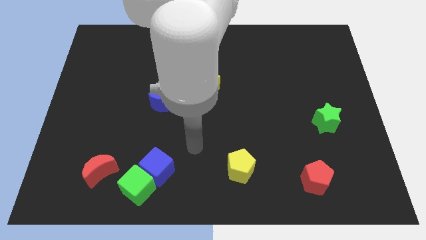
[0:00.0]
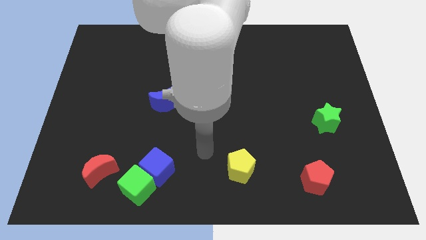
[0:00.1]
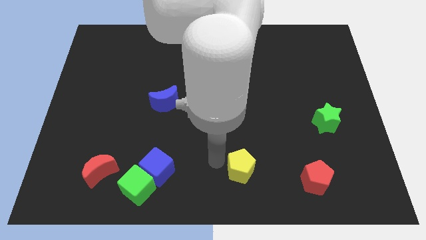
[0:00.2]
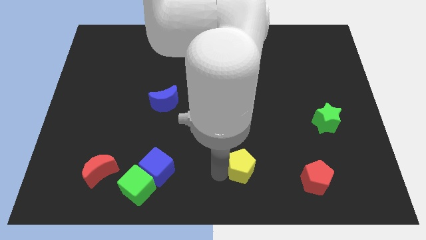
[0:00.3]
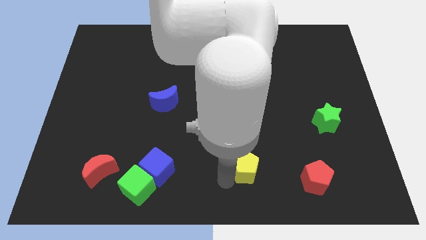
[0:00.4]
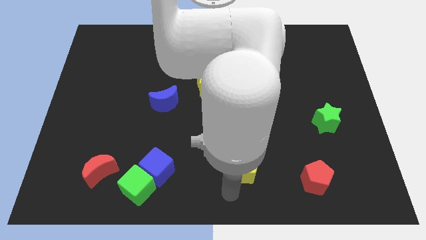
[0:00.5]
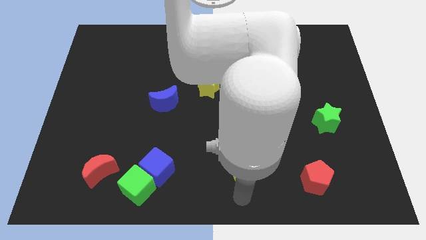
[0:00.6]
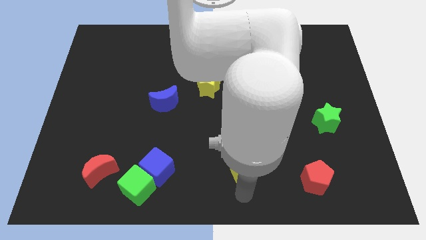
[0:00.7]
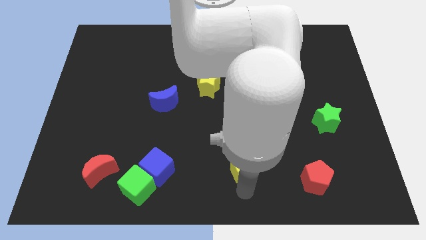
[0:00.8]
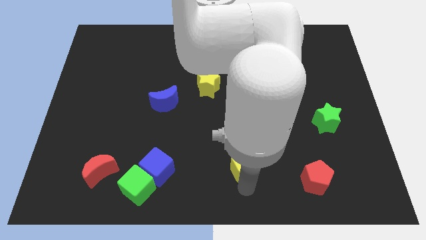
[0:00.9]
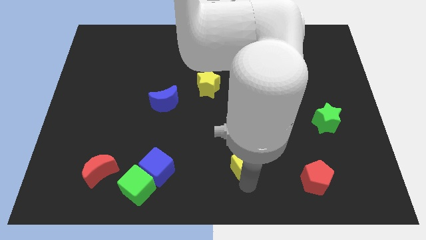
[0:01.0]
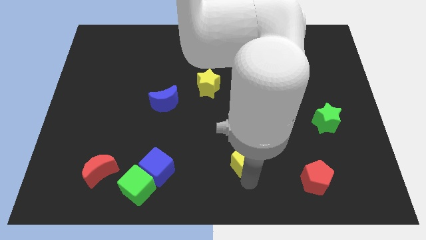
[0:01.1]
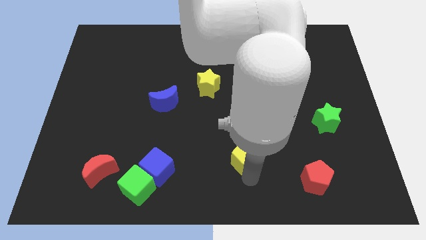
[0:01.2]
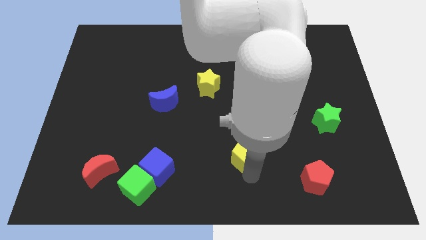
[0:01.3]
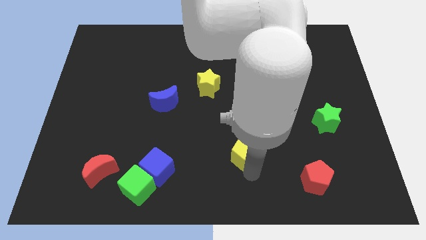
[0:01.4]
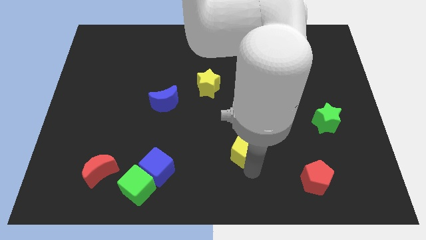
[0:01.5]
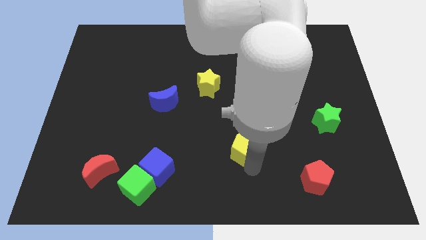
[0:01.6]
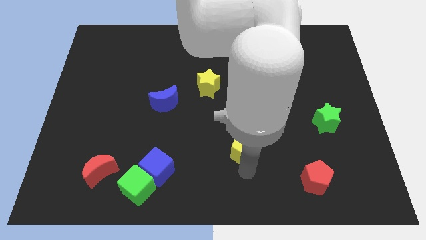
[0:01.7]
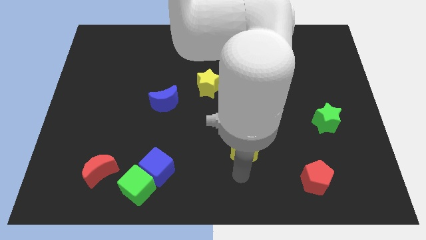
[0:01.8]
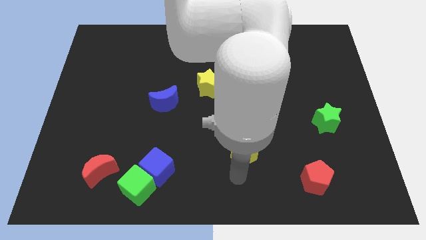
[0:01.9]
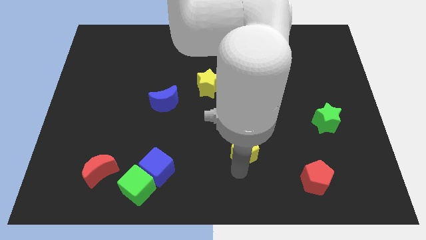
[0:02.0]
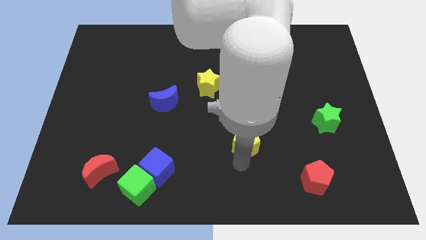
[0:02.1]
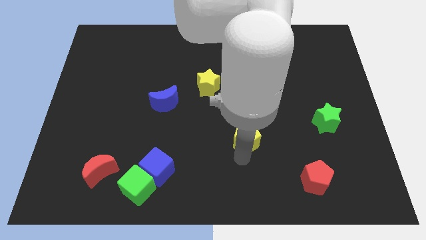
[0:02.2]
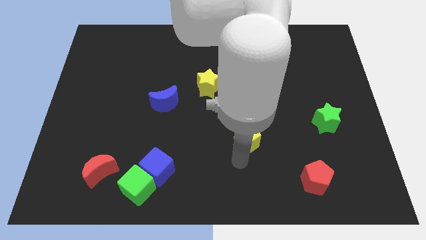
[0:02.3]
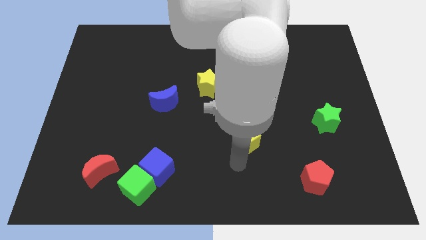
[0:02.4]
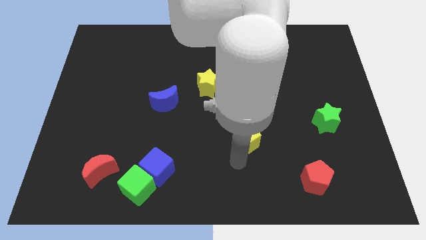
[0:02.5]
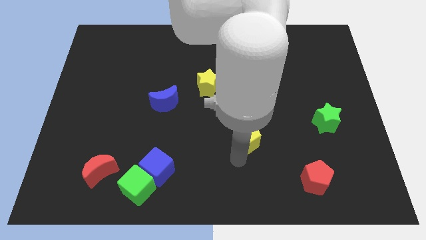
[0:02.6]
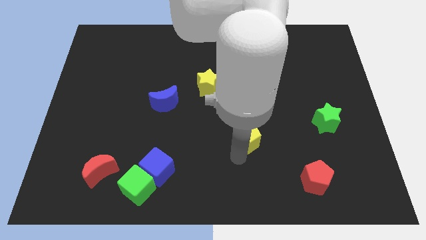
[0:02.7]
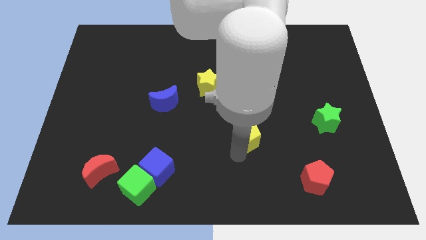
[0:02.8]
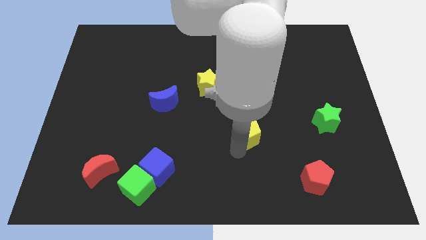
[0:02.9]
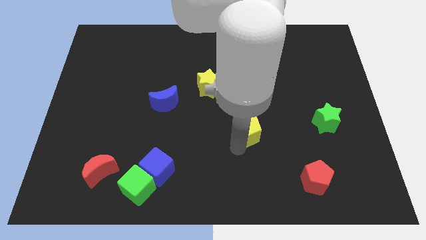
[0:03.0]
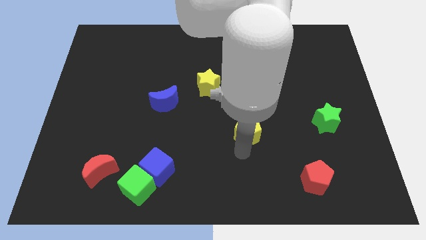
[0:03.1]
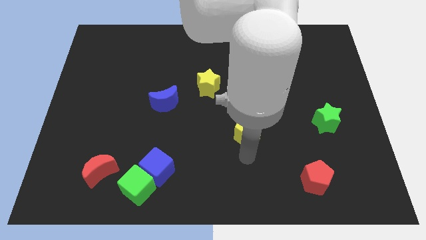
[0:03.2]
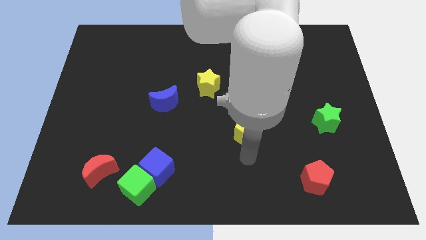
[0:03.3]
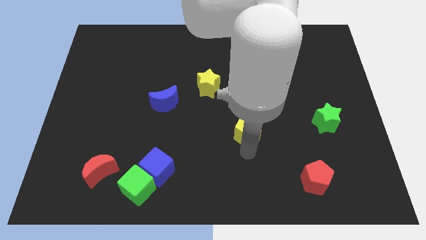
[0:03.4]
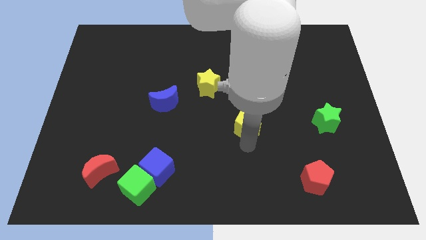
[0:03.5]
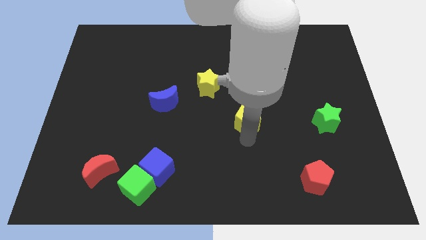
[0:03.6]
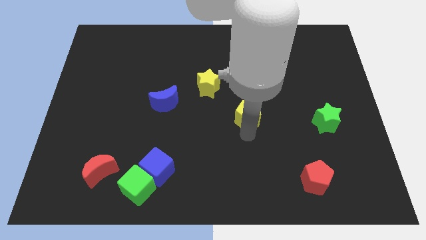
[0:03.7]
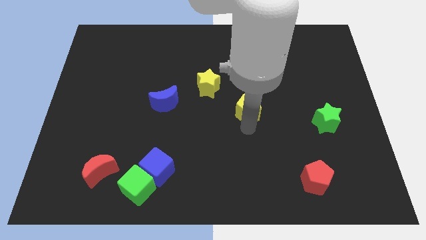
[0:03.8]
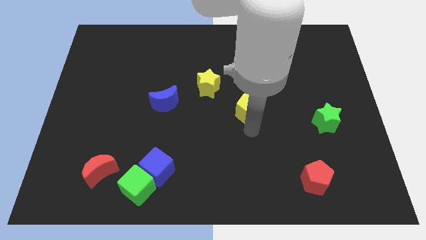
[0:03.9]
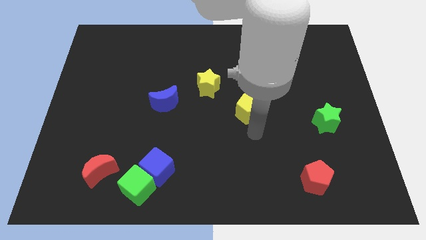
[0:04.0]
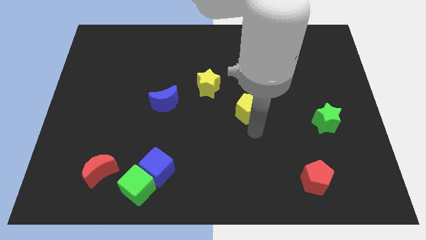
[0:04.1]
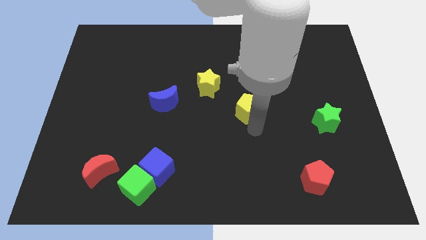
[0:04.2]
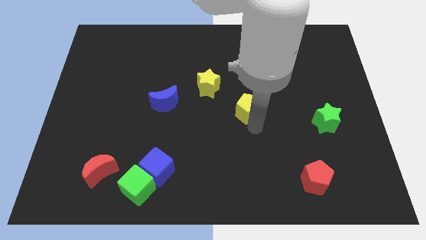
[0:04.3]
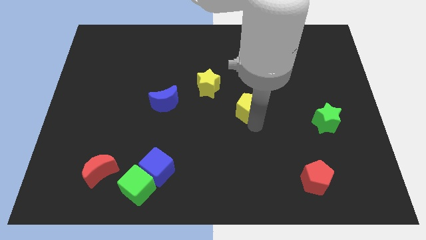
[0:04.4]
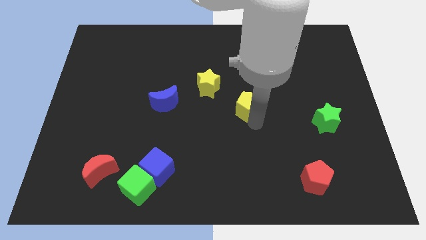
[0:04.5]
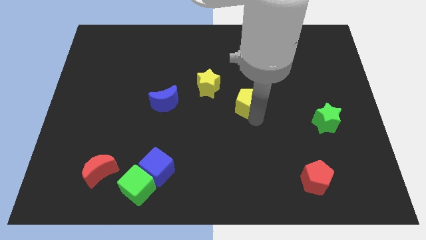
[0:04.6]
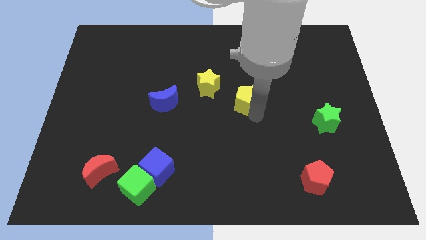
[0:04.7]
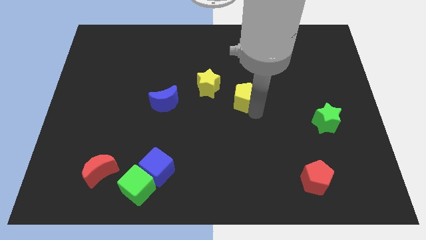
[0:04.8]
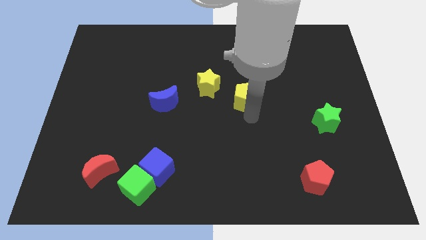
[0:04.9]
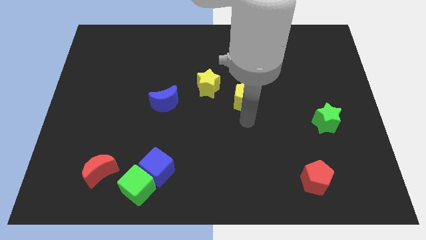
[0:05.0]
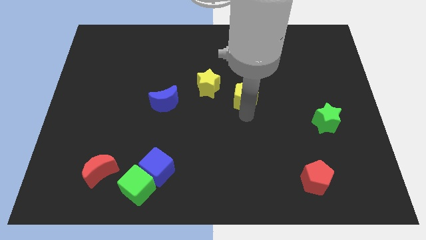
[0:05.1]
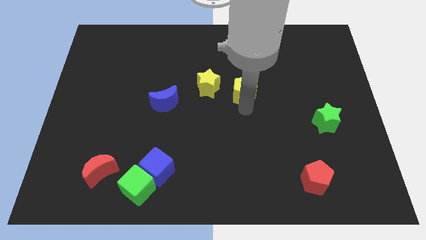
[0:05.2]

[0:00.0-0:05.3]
slide the yellow pentagon up

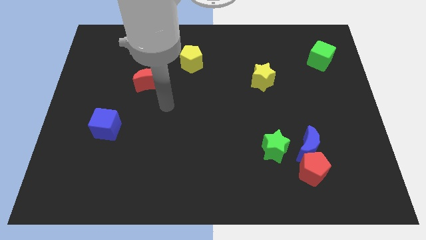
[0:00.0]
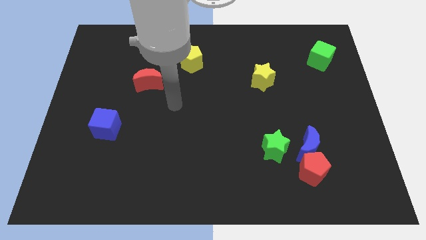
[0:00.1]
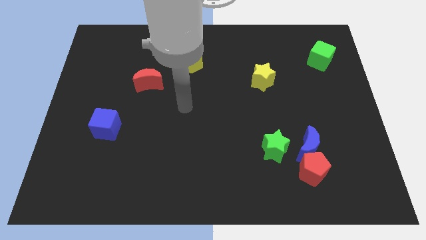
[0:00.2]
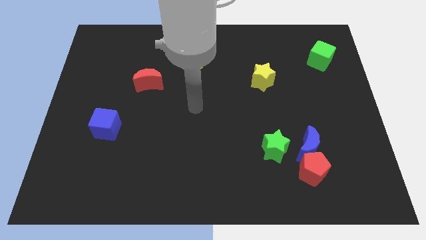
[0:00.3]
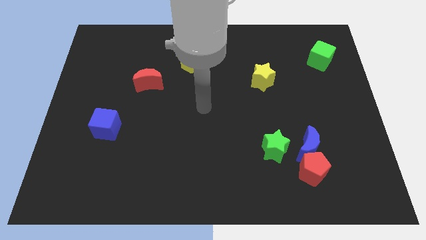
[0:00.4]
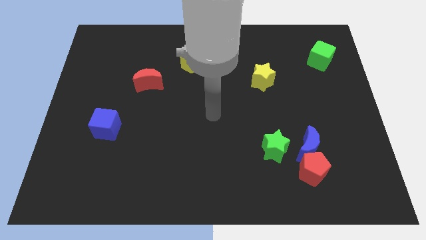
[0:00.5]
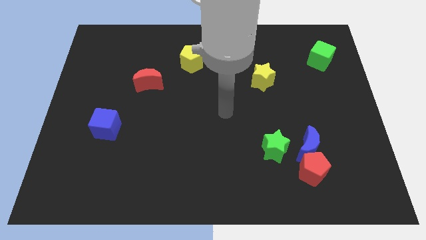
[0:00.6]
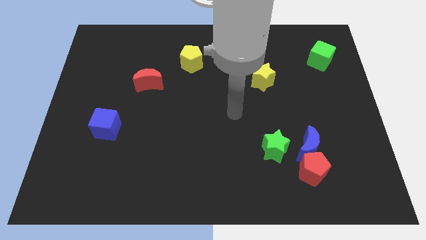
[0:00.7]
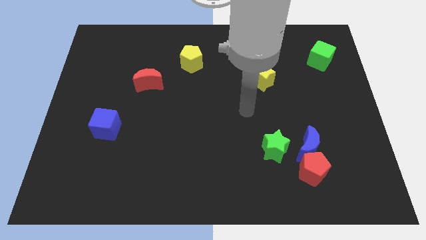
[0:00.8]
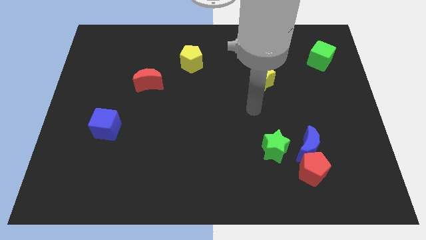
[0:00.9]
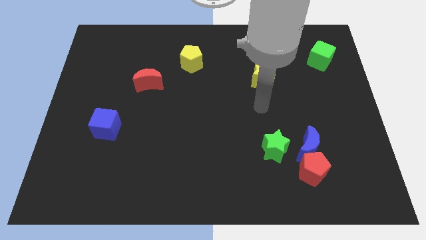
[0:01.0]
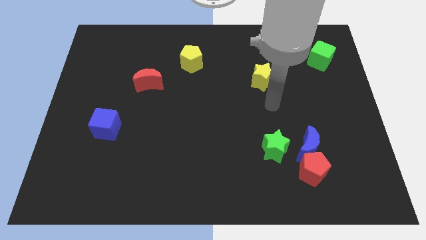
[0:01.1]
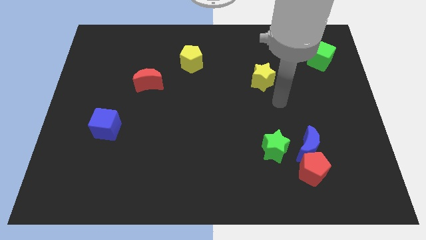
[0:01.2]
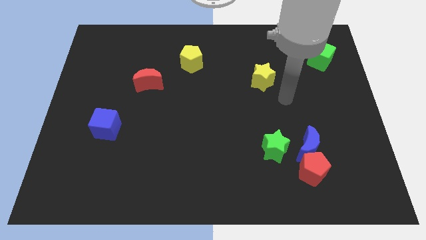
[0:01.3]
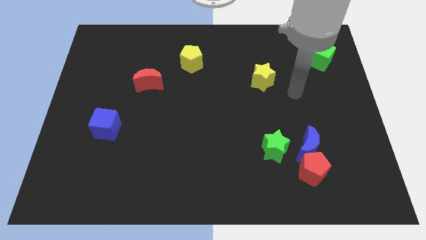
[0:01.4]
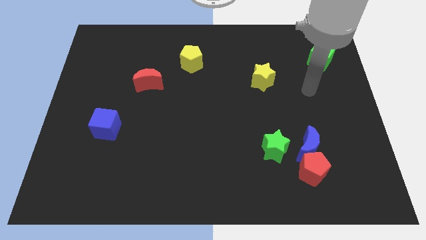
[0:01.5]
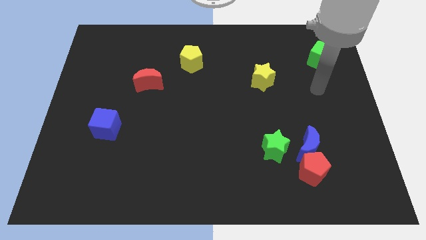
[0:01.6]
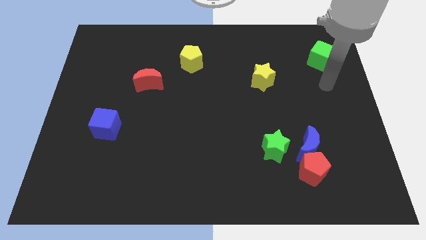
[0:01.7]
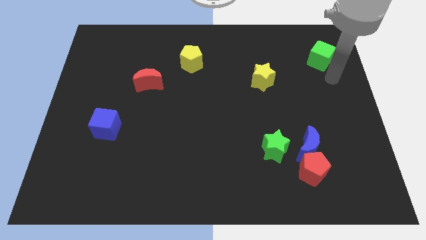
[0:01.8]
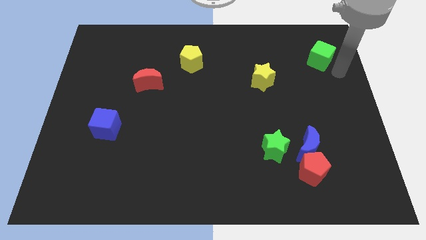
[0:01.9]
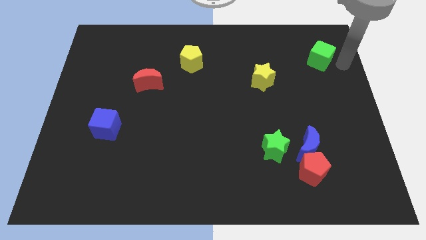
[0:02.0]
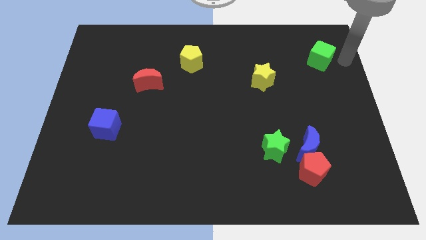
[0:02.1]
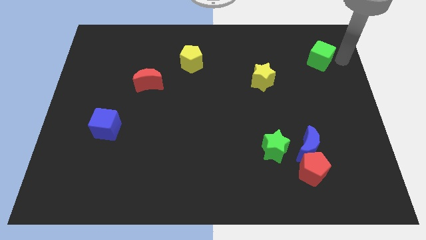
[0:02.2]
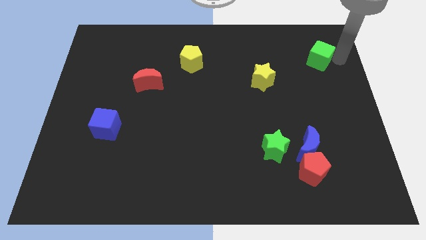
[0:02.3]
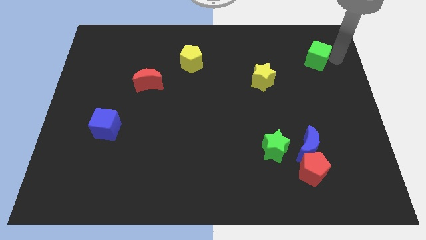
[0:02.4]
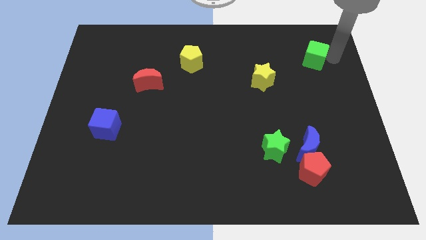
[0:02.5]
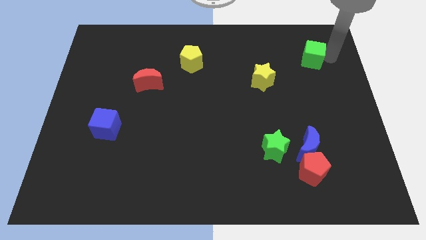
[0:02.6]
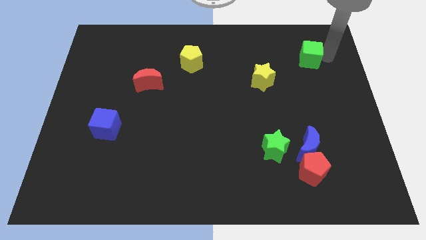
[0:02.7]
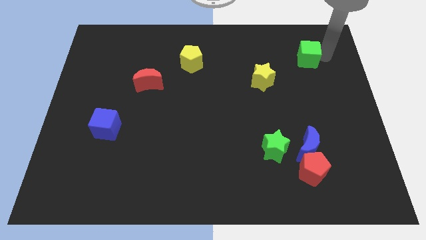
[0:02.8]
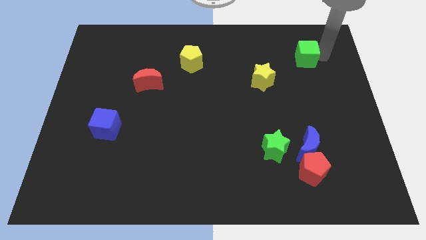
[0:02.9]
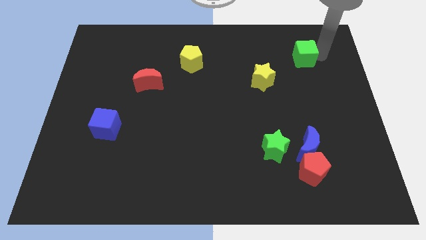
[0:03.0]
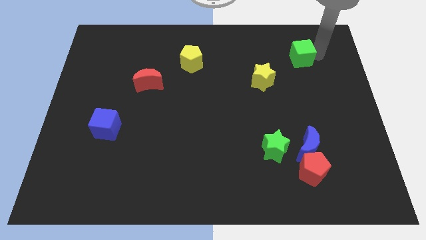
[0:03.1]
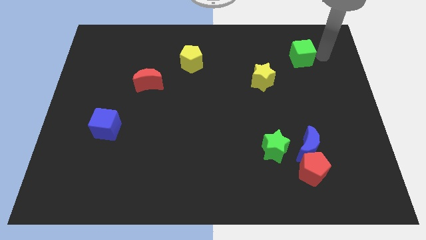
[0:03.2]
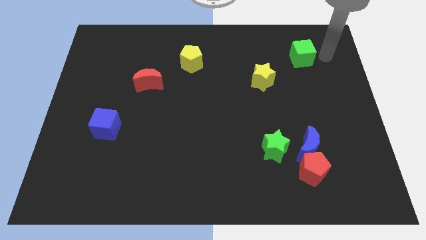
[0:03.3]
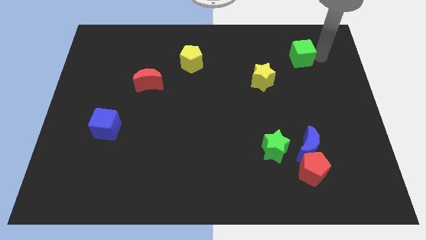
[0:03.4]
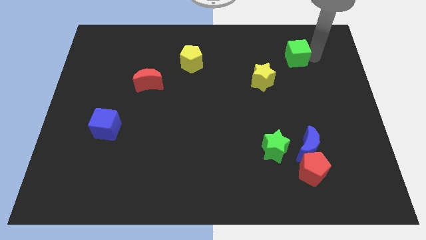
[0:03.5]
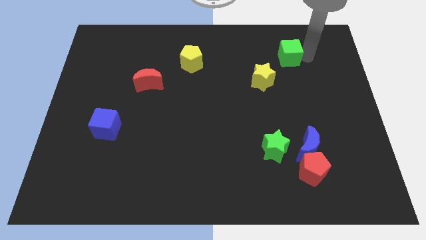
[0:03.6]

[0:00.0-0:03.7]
push the green cube to the left a little bit
